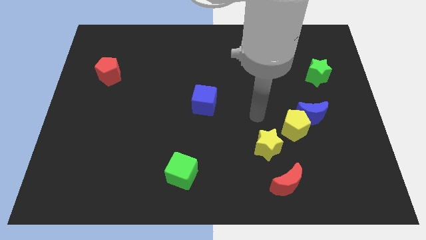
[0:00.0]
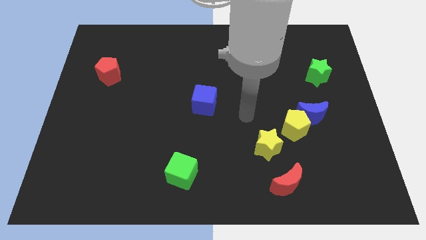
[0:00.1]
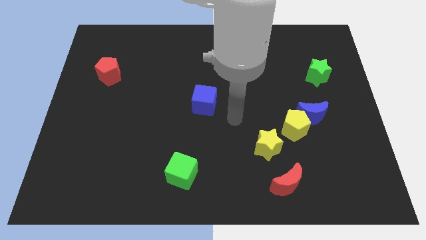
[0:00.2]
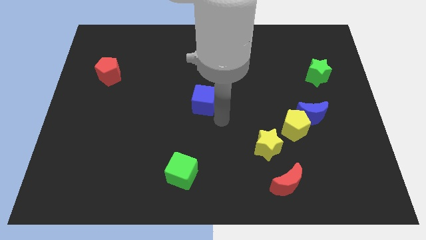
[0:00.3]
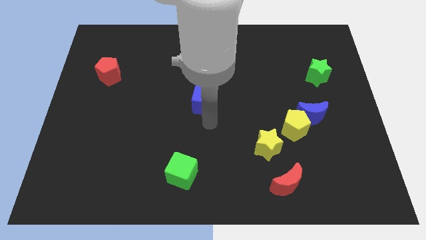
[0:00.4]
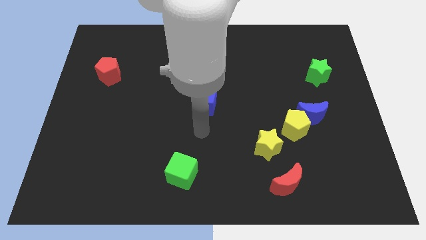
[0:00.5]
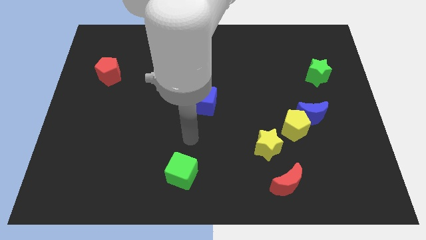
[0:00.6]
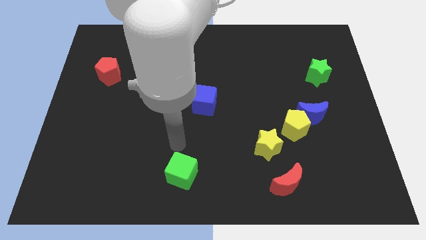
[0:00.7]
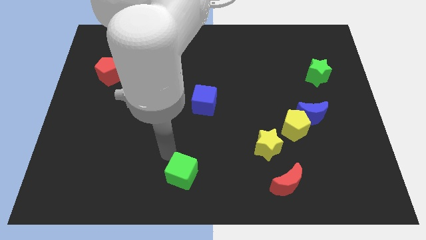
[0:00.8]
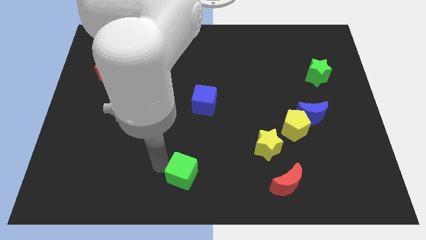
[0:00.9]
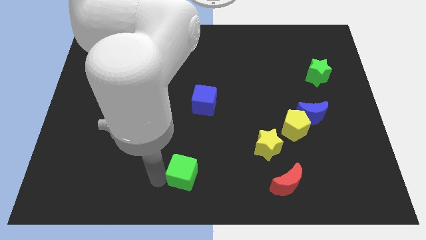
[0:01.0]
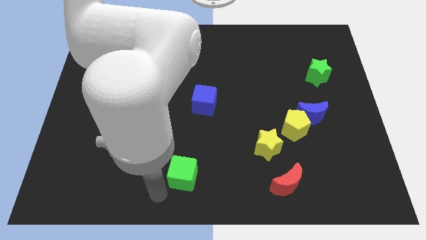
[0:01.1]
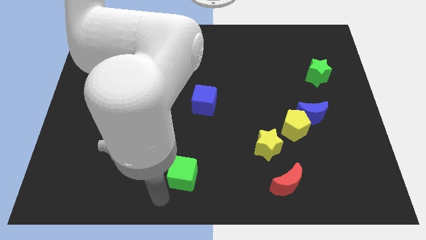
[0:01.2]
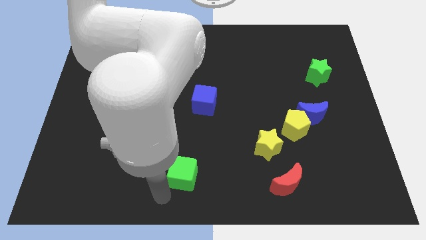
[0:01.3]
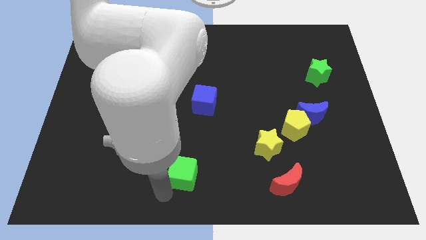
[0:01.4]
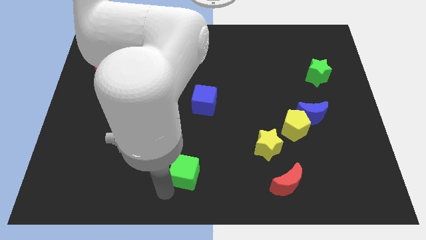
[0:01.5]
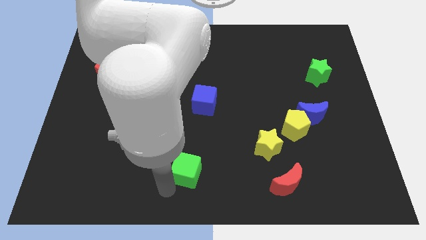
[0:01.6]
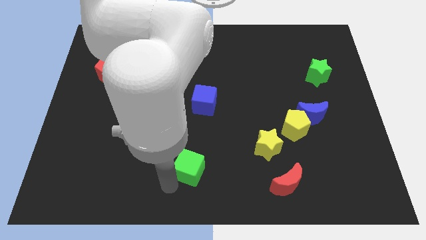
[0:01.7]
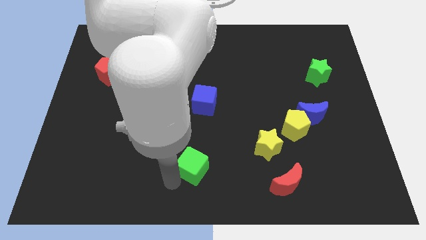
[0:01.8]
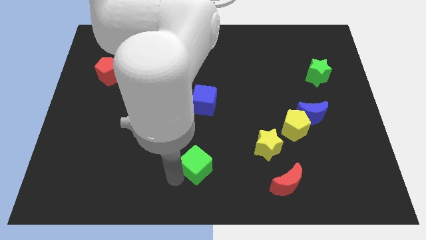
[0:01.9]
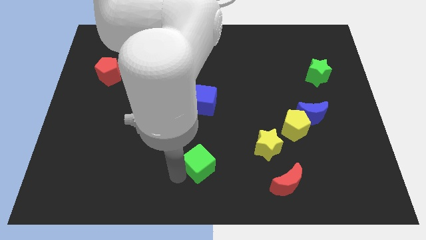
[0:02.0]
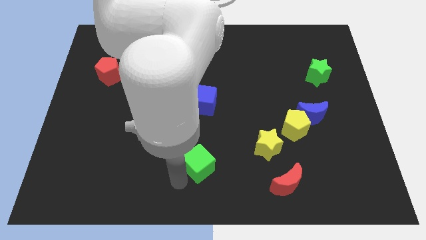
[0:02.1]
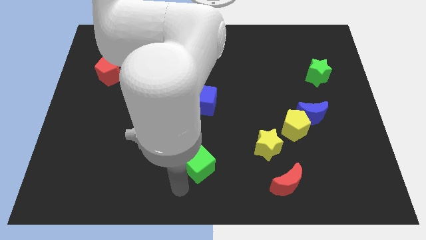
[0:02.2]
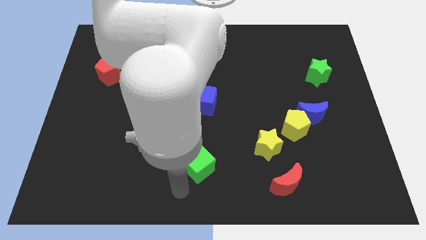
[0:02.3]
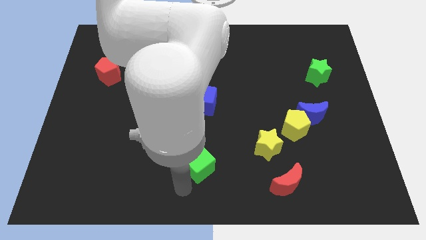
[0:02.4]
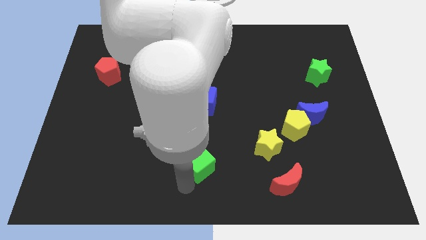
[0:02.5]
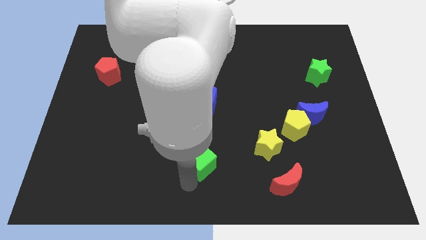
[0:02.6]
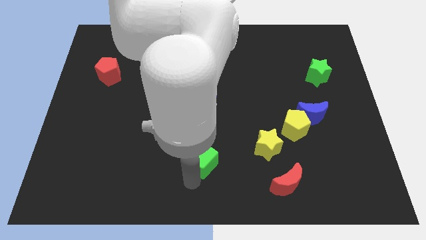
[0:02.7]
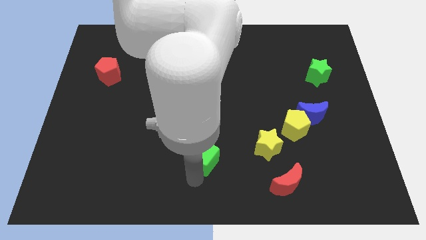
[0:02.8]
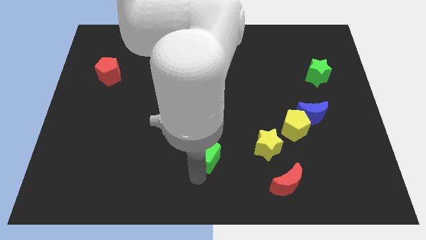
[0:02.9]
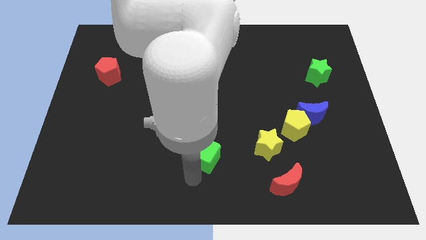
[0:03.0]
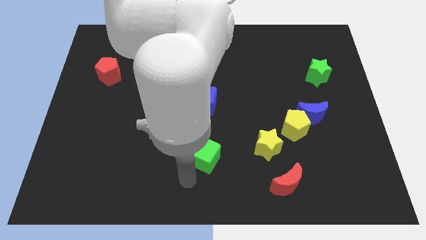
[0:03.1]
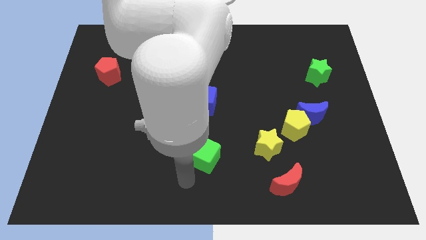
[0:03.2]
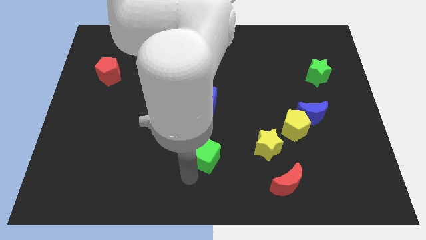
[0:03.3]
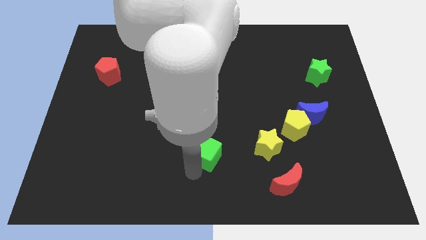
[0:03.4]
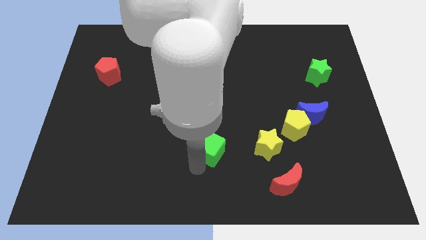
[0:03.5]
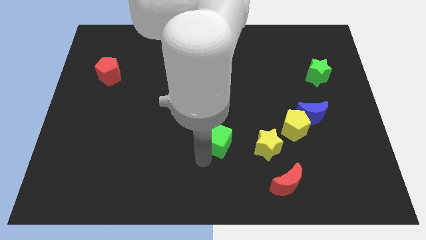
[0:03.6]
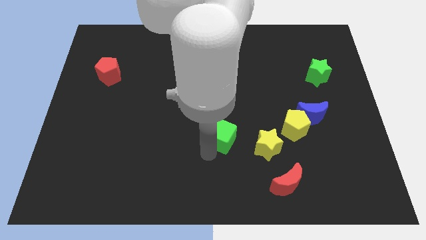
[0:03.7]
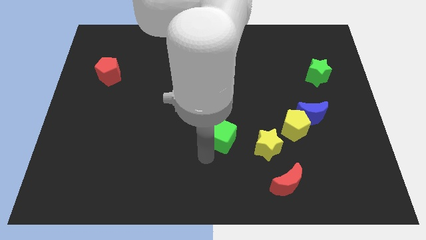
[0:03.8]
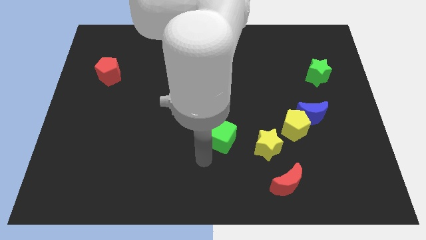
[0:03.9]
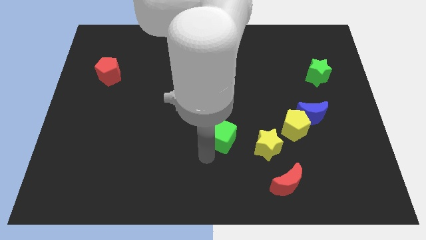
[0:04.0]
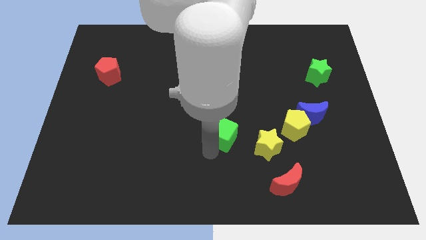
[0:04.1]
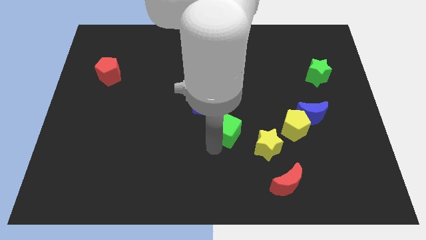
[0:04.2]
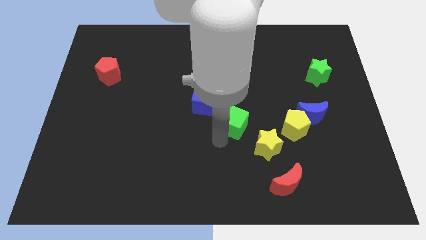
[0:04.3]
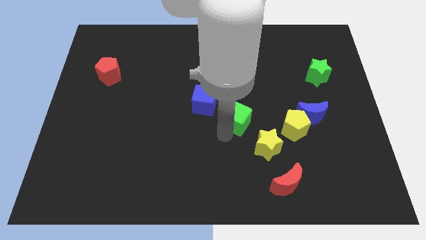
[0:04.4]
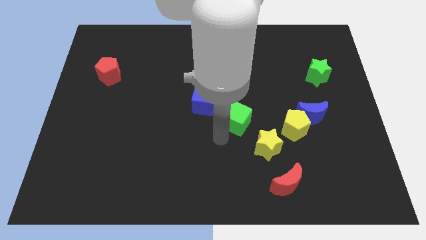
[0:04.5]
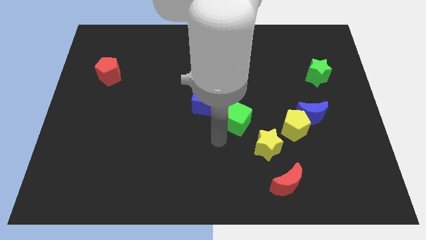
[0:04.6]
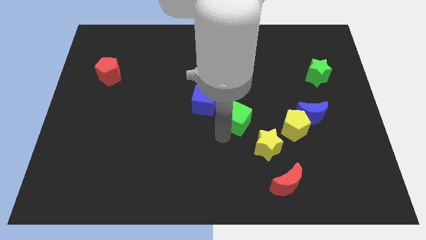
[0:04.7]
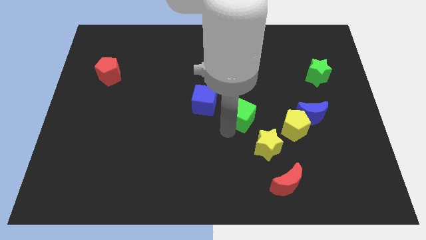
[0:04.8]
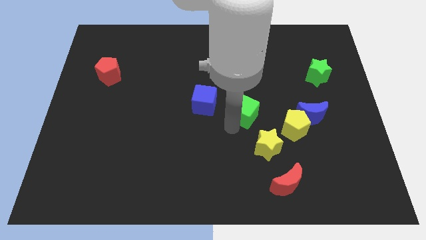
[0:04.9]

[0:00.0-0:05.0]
move the green cube upwards and then to the right

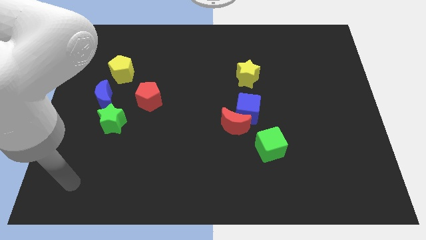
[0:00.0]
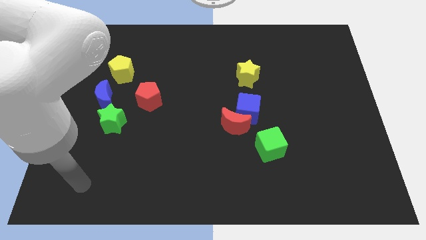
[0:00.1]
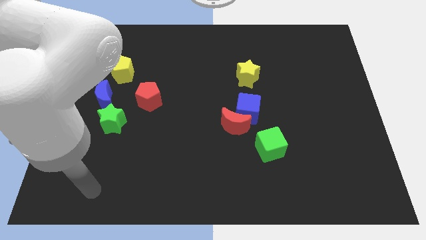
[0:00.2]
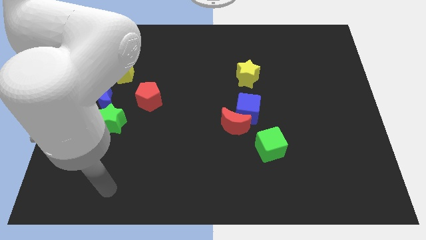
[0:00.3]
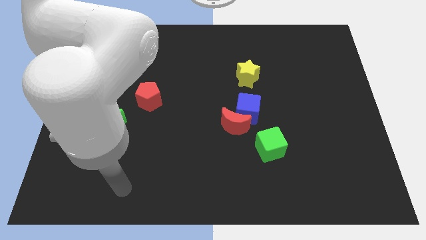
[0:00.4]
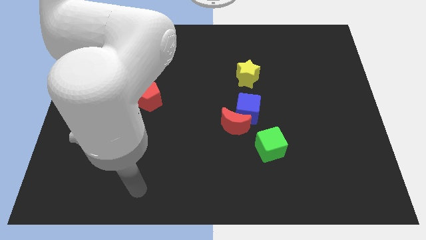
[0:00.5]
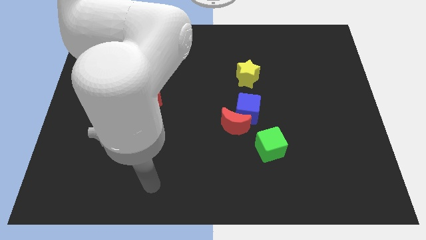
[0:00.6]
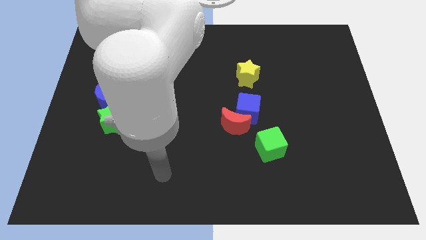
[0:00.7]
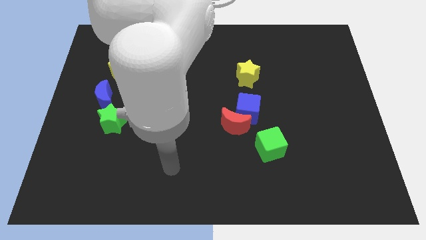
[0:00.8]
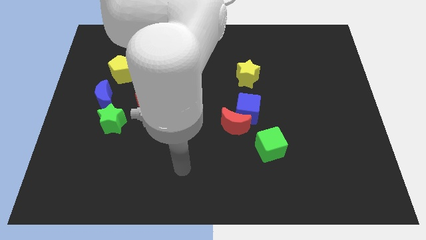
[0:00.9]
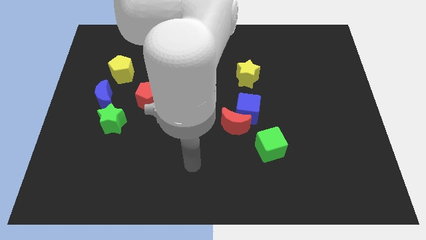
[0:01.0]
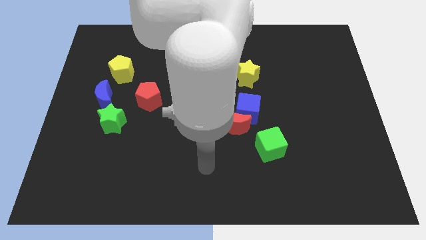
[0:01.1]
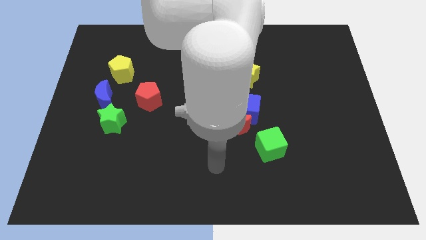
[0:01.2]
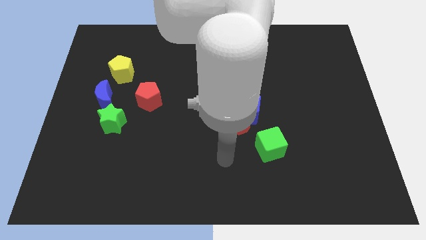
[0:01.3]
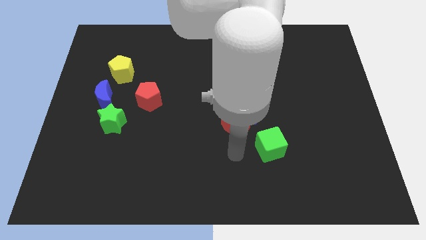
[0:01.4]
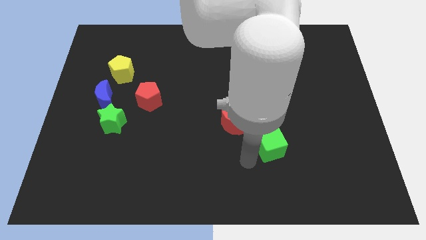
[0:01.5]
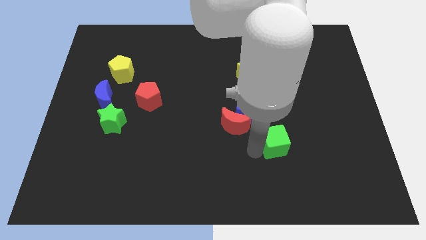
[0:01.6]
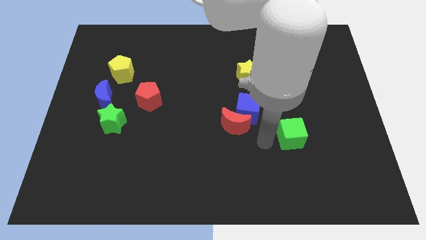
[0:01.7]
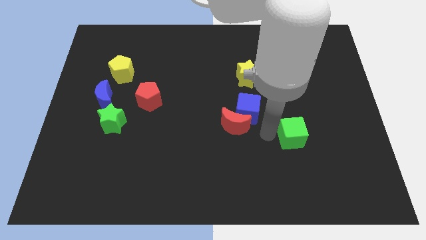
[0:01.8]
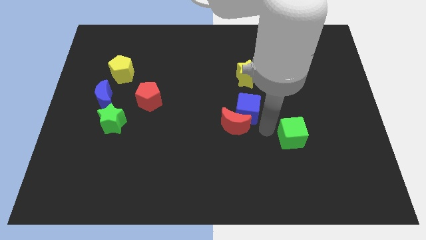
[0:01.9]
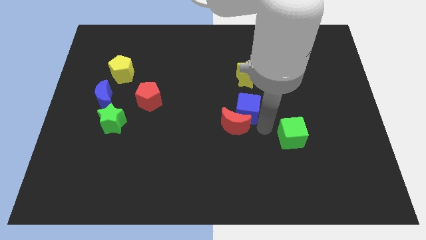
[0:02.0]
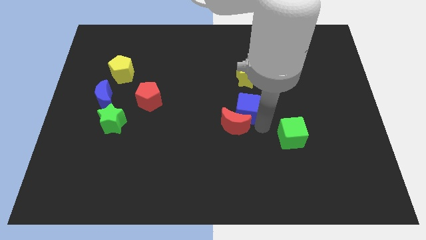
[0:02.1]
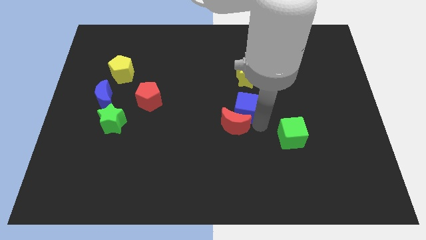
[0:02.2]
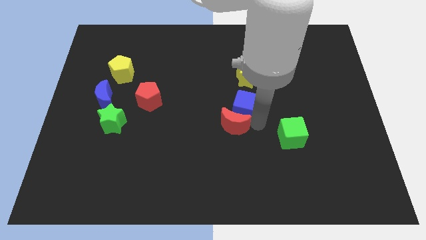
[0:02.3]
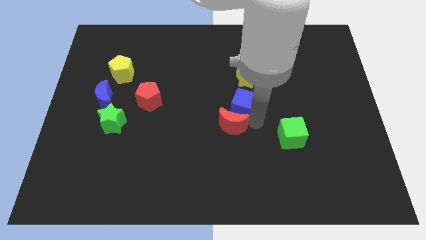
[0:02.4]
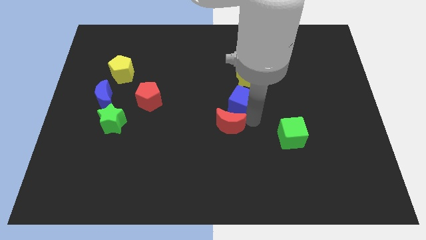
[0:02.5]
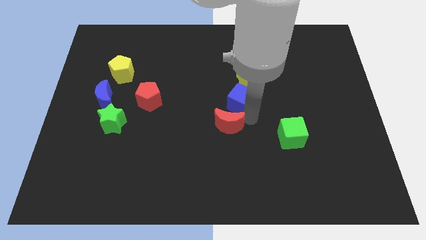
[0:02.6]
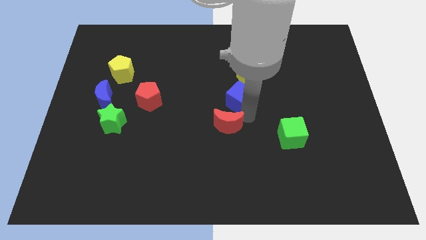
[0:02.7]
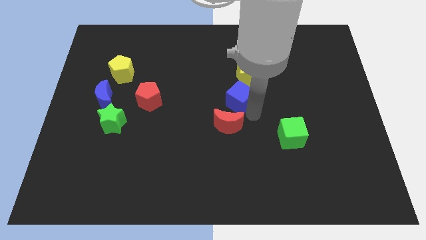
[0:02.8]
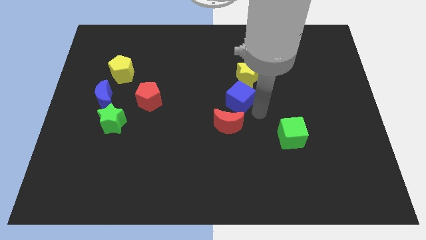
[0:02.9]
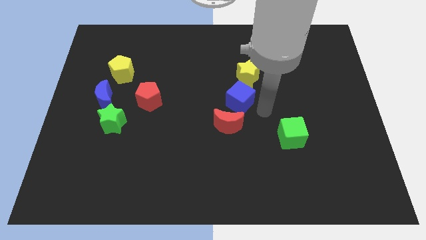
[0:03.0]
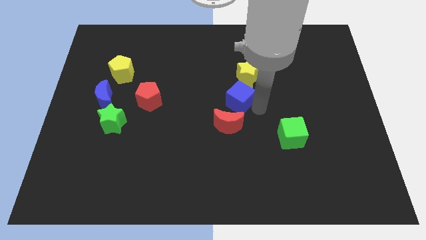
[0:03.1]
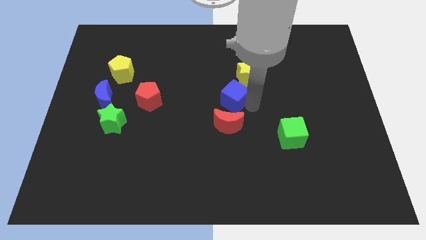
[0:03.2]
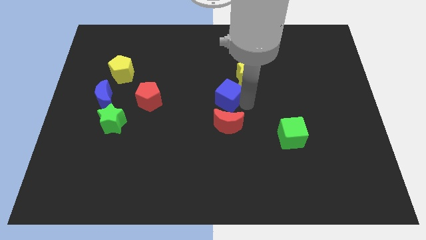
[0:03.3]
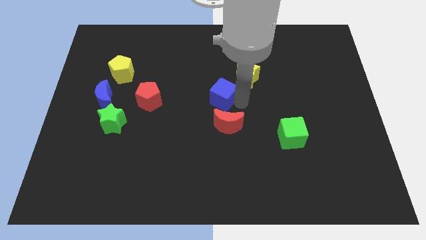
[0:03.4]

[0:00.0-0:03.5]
move the blue cube a little diagonally upwards and left
